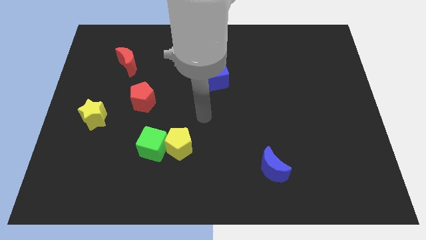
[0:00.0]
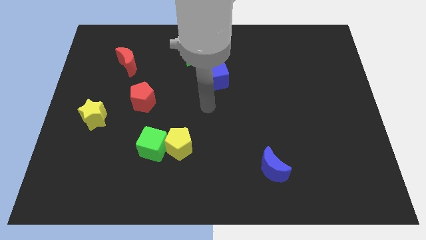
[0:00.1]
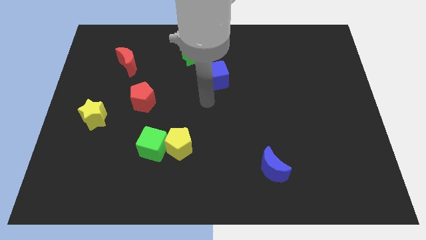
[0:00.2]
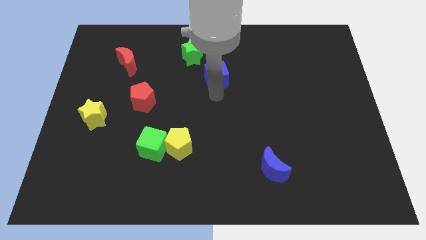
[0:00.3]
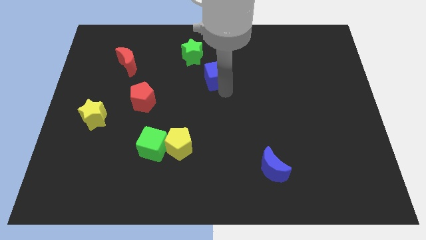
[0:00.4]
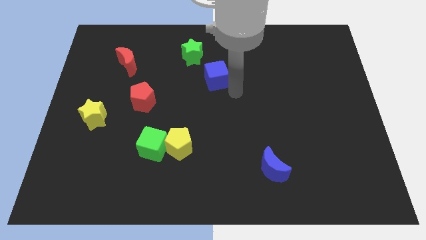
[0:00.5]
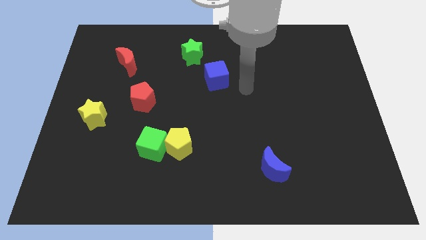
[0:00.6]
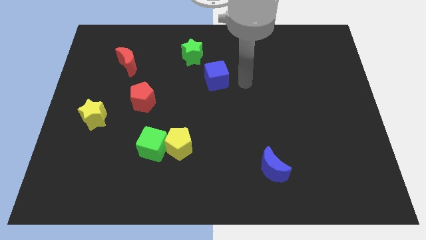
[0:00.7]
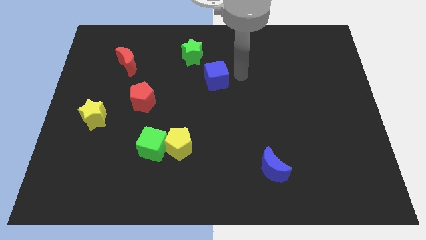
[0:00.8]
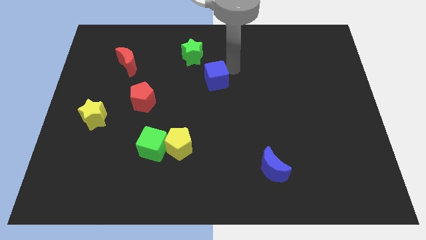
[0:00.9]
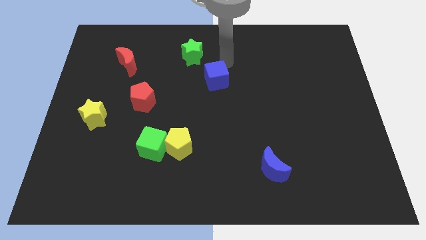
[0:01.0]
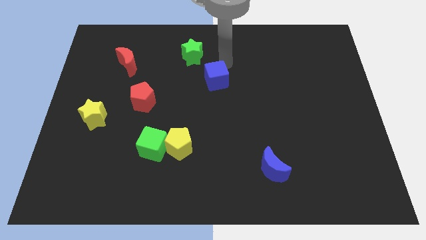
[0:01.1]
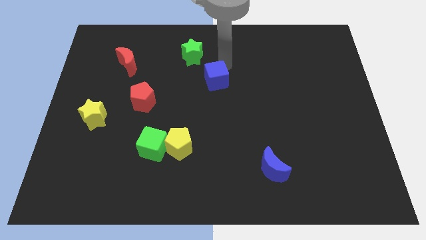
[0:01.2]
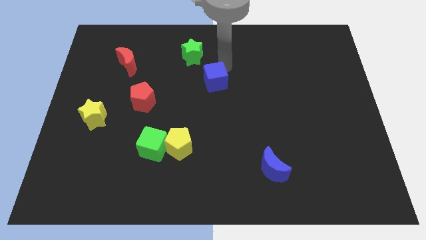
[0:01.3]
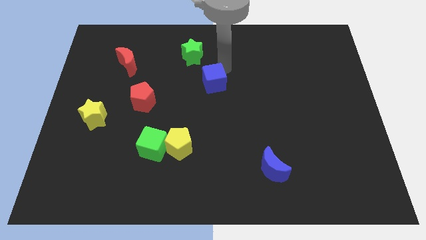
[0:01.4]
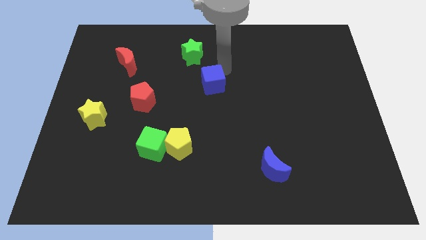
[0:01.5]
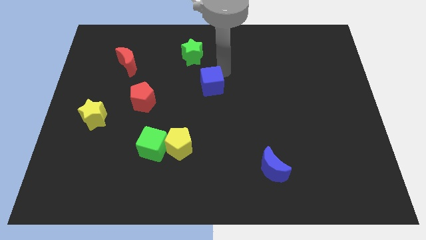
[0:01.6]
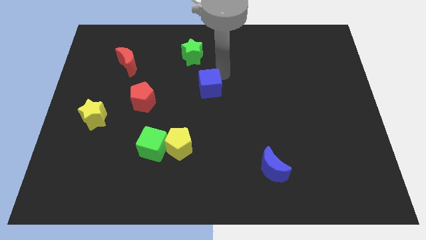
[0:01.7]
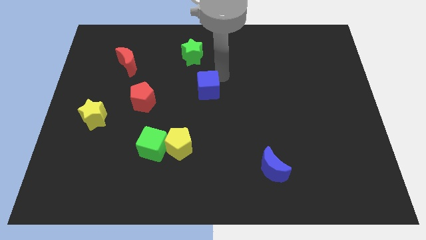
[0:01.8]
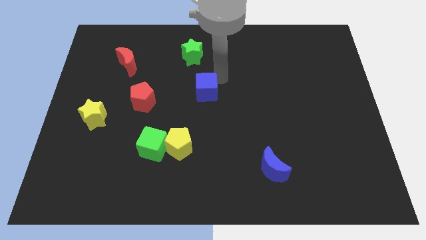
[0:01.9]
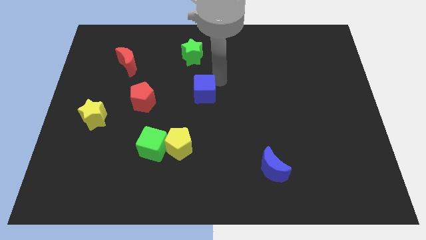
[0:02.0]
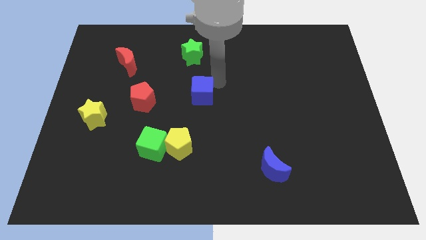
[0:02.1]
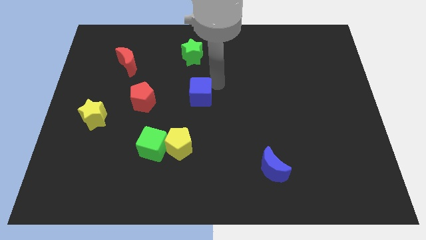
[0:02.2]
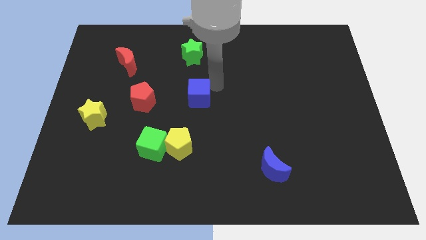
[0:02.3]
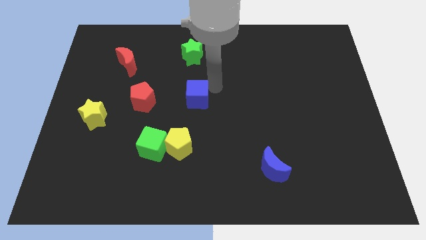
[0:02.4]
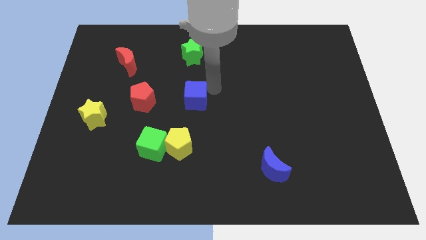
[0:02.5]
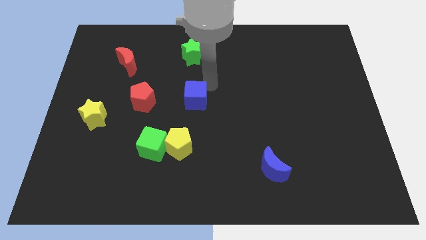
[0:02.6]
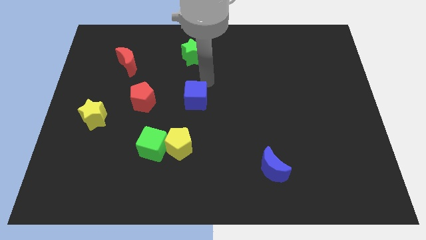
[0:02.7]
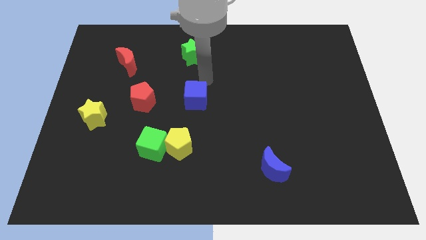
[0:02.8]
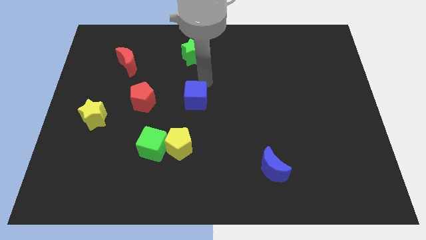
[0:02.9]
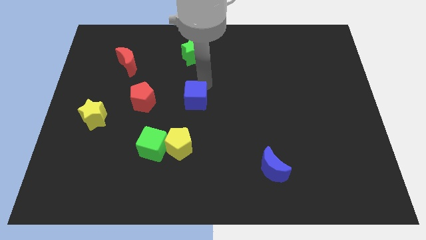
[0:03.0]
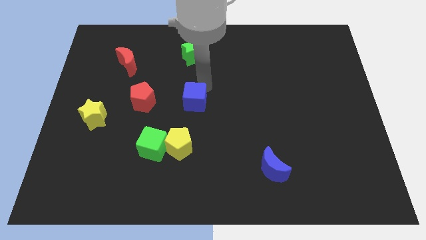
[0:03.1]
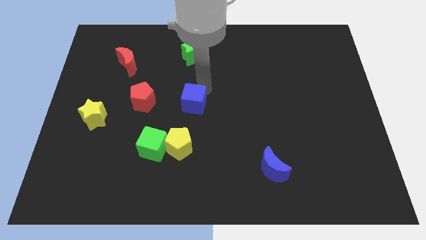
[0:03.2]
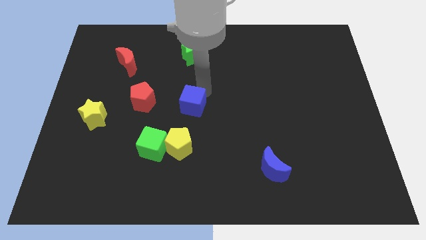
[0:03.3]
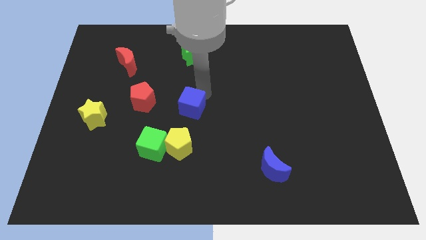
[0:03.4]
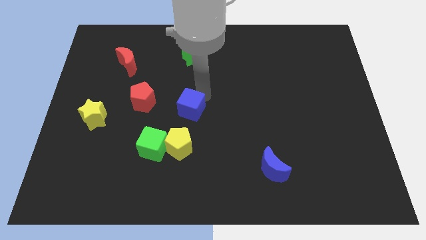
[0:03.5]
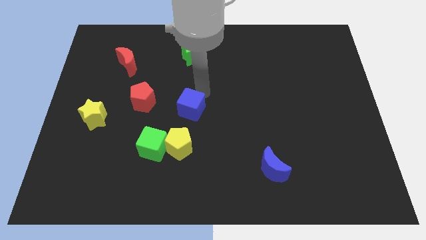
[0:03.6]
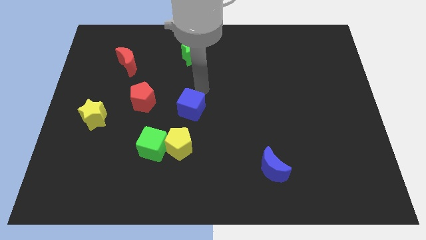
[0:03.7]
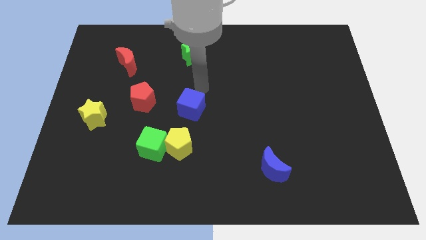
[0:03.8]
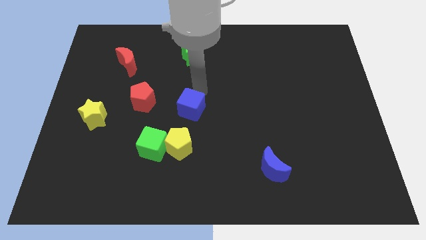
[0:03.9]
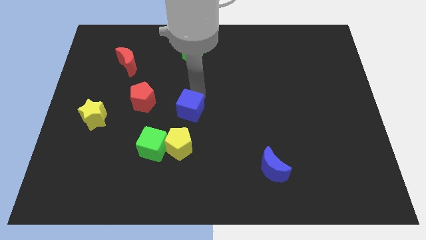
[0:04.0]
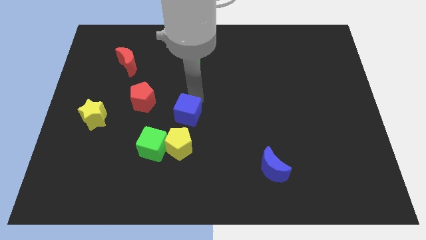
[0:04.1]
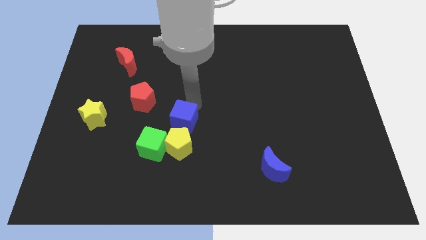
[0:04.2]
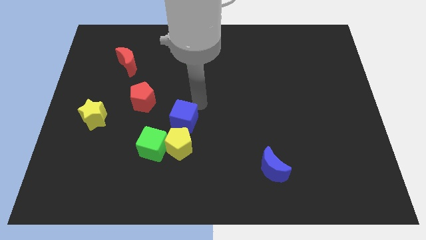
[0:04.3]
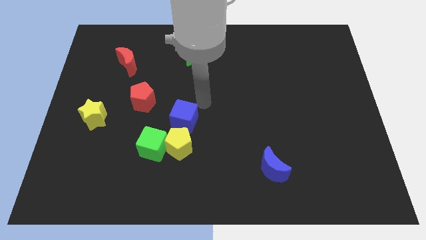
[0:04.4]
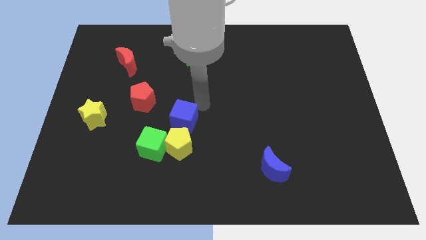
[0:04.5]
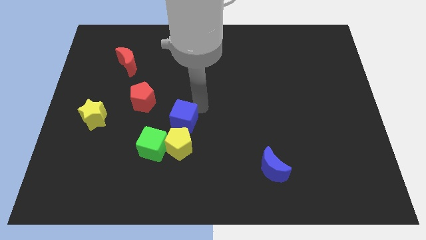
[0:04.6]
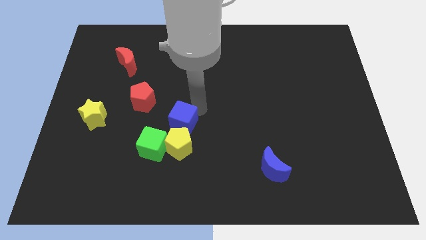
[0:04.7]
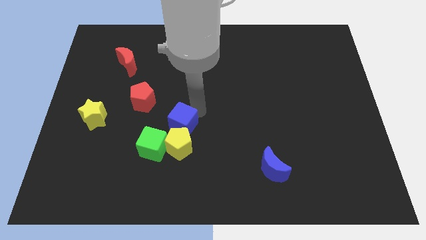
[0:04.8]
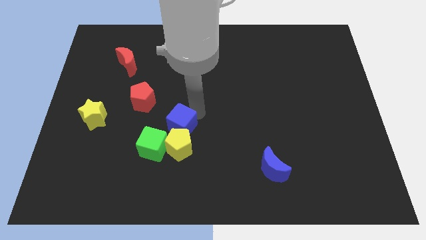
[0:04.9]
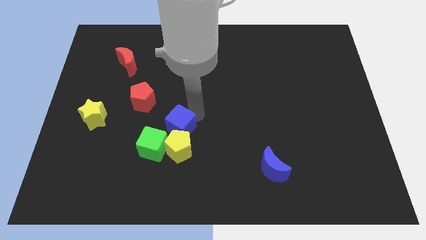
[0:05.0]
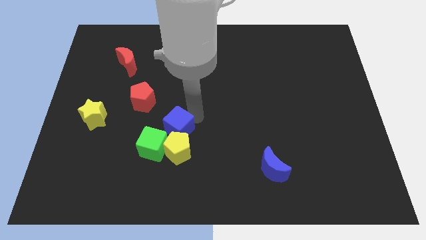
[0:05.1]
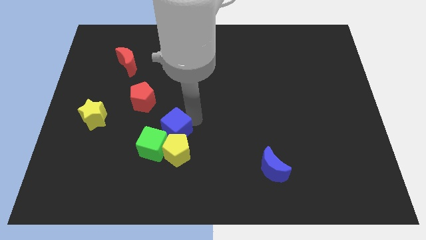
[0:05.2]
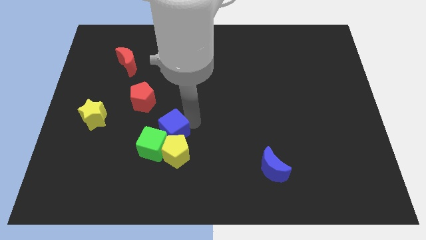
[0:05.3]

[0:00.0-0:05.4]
move the blue cube towards the green cube

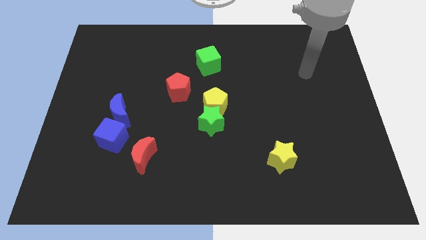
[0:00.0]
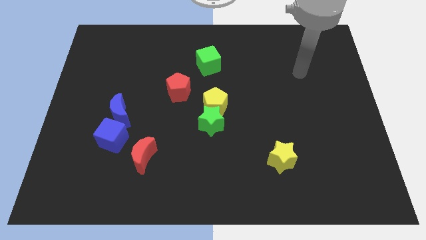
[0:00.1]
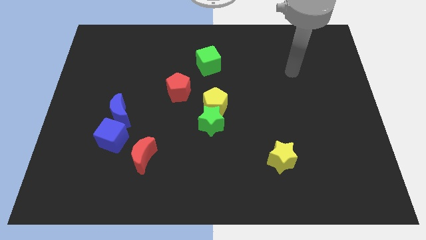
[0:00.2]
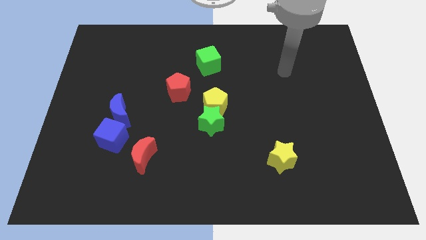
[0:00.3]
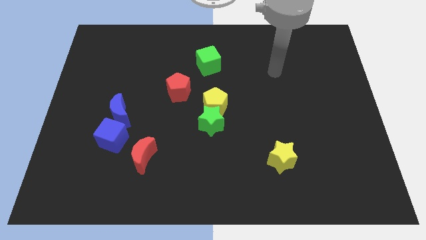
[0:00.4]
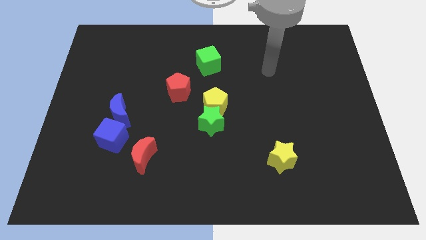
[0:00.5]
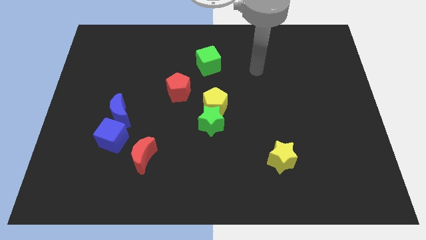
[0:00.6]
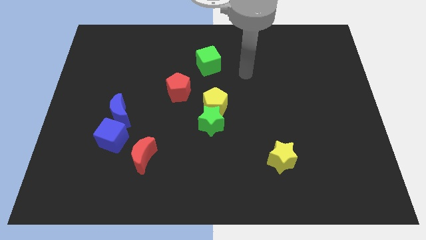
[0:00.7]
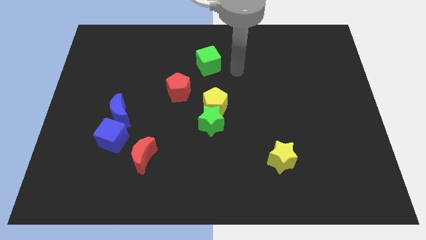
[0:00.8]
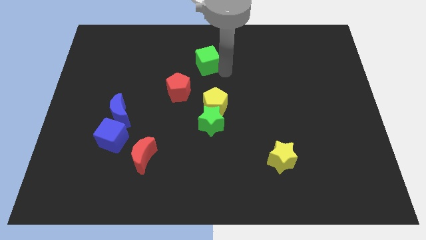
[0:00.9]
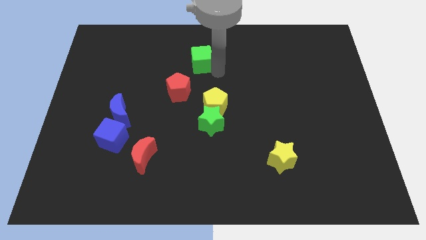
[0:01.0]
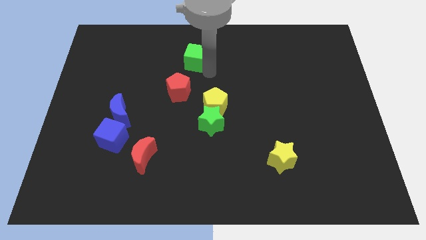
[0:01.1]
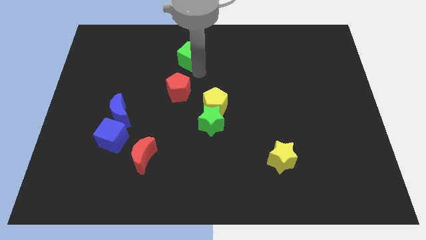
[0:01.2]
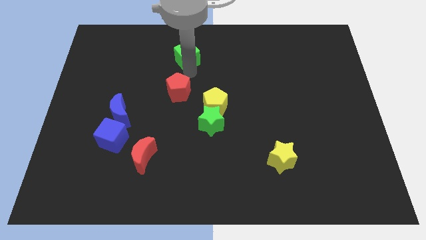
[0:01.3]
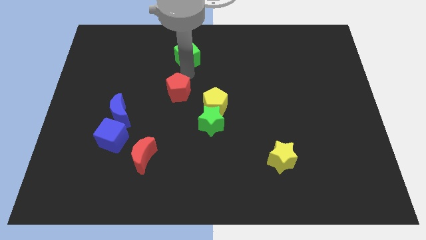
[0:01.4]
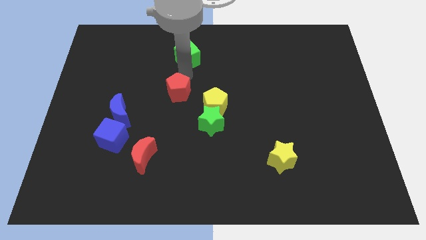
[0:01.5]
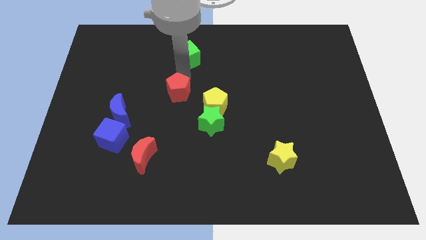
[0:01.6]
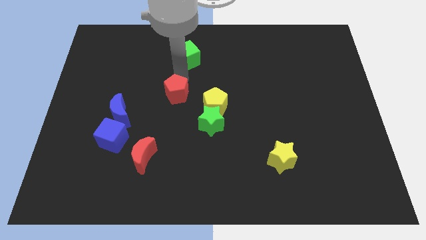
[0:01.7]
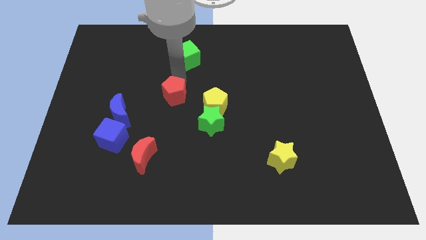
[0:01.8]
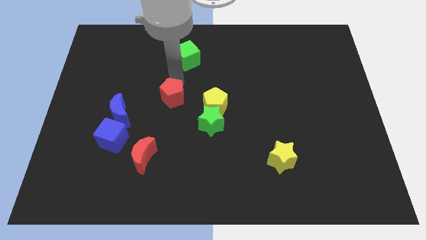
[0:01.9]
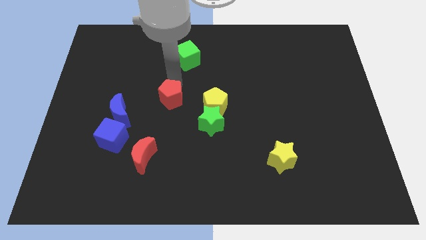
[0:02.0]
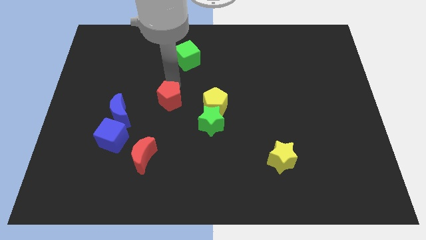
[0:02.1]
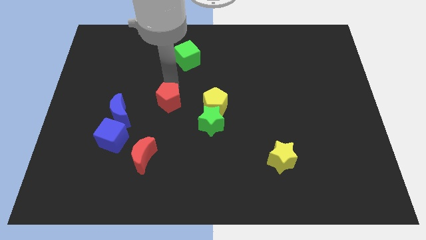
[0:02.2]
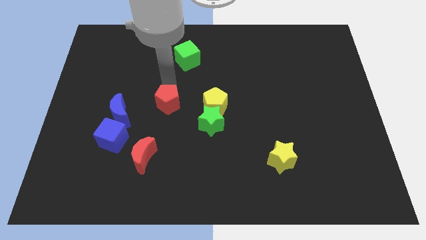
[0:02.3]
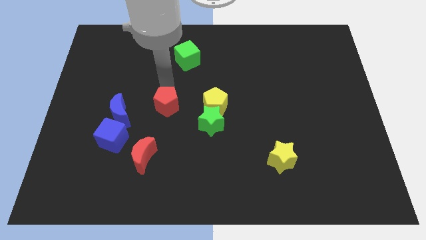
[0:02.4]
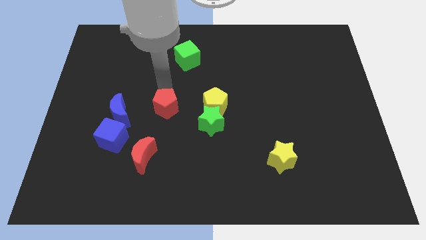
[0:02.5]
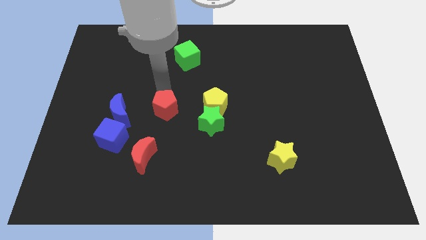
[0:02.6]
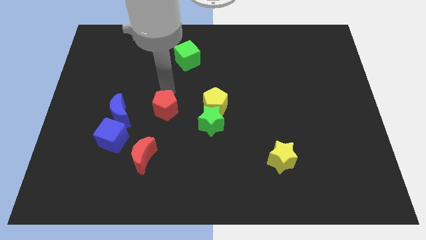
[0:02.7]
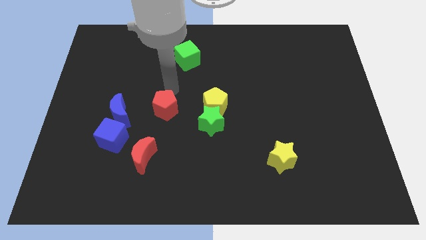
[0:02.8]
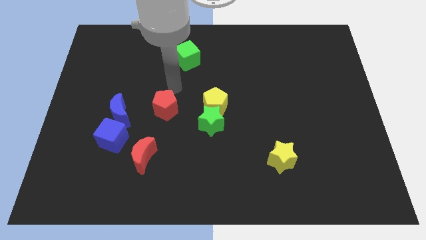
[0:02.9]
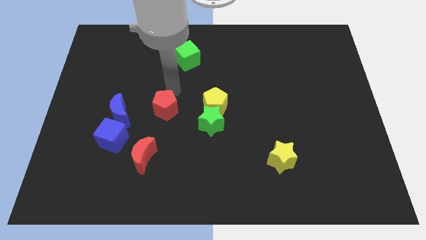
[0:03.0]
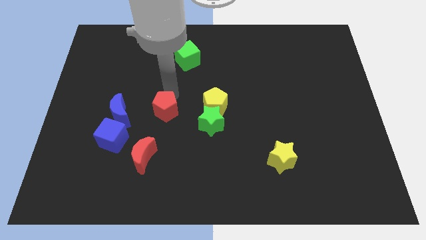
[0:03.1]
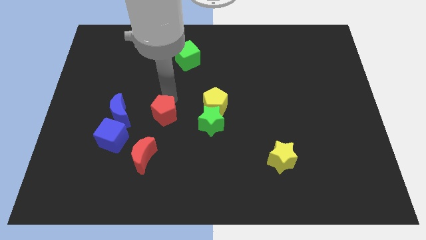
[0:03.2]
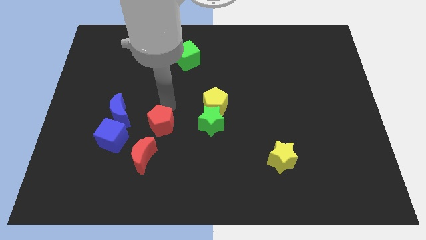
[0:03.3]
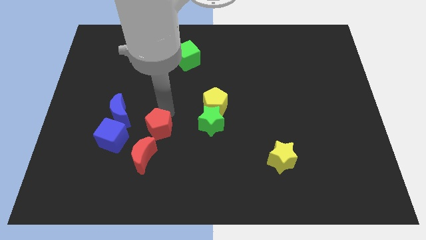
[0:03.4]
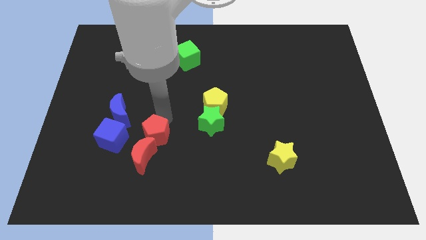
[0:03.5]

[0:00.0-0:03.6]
push the red pentagon next to the red moon
